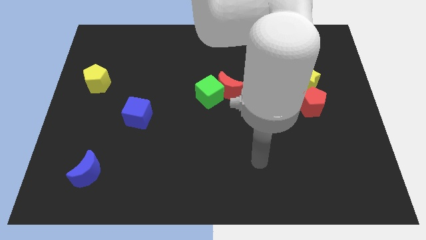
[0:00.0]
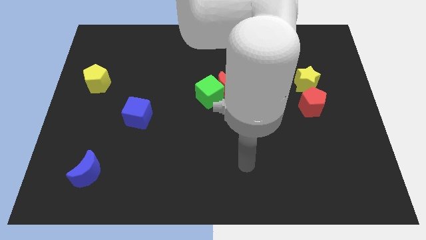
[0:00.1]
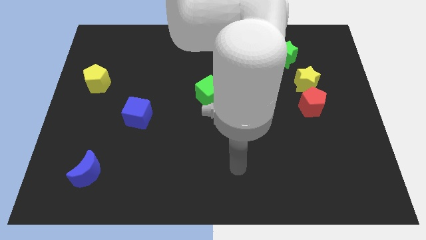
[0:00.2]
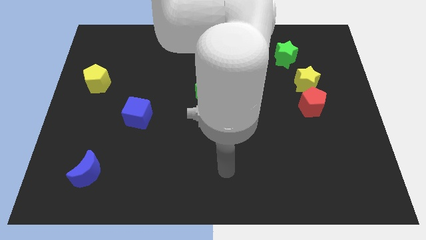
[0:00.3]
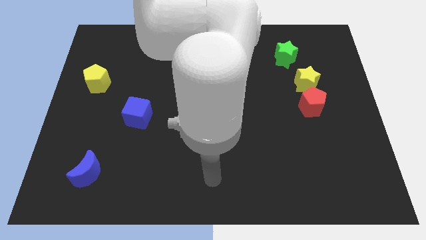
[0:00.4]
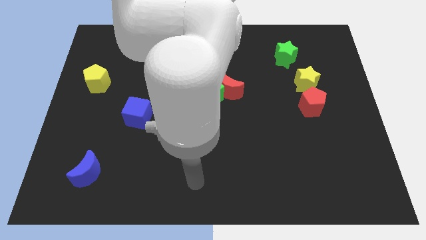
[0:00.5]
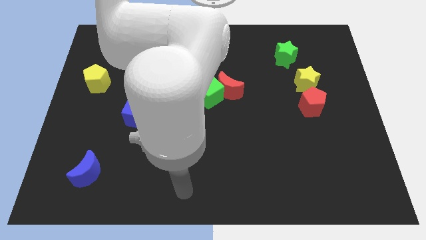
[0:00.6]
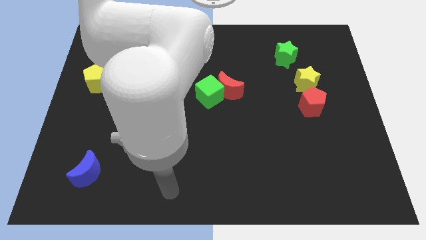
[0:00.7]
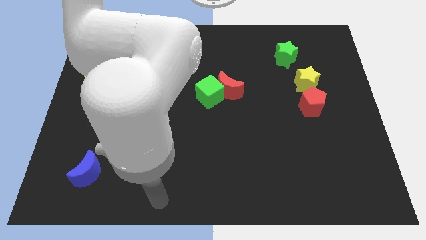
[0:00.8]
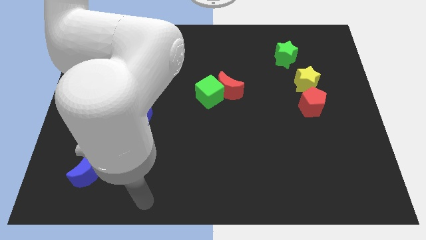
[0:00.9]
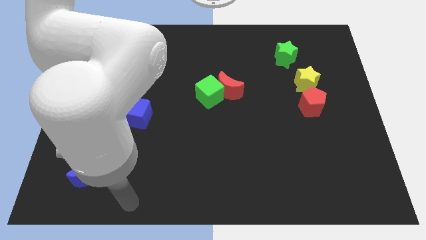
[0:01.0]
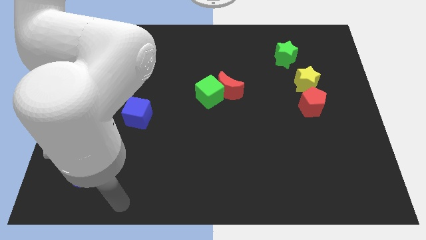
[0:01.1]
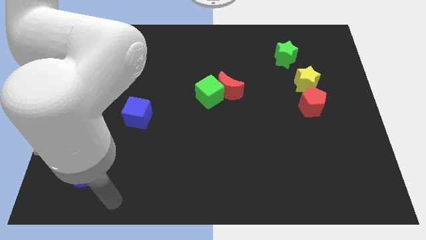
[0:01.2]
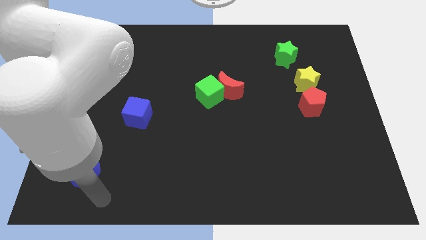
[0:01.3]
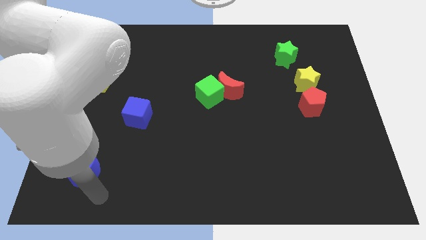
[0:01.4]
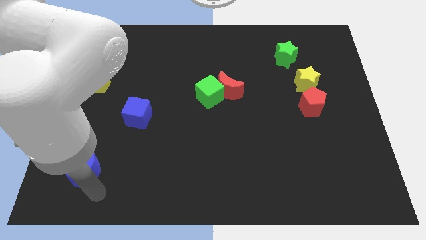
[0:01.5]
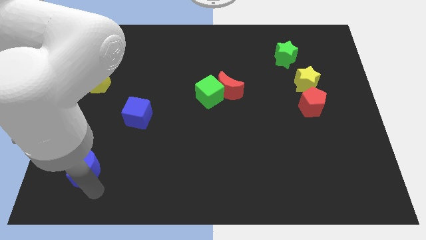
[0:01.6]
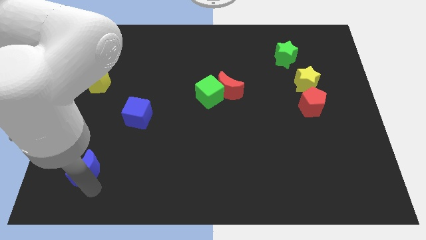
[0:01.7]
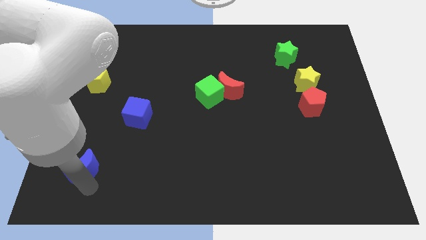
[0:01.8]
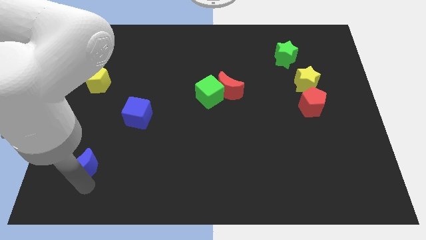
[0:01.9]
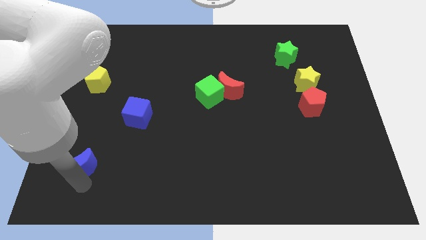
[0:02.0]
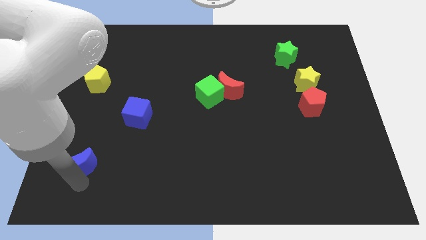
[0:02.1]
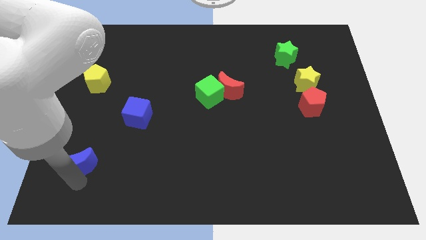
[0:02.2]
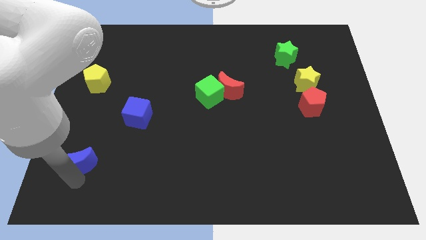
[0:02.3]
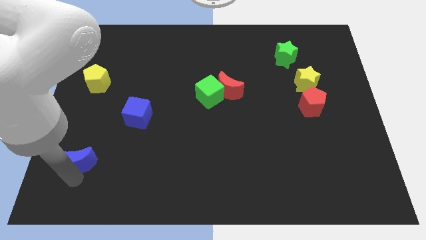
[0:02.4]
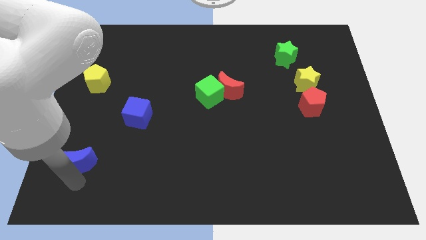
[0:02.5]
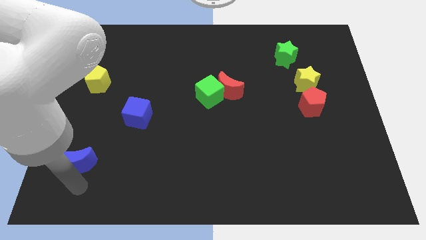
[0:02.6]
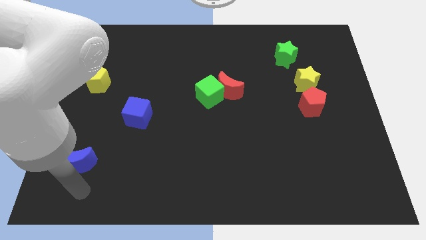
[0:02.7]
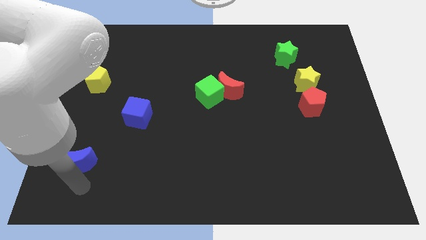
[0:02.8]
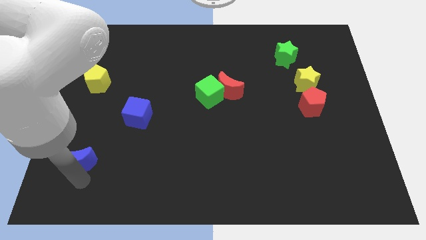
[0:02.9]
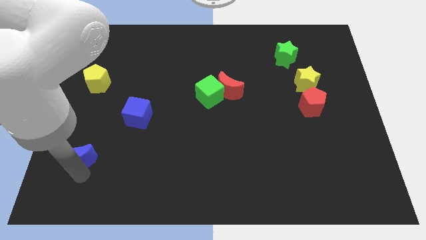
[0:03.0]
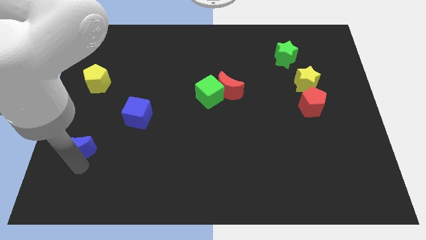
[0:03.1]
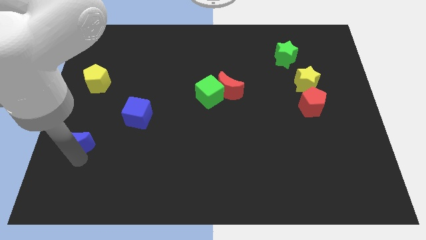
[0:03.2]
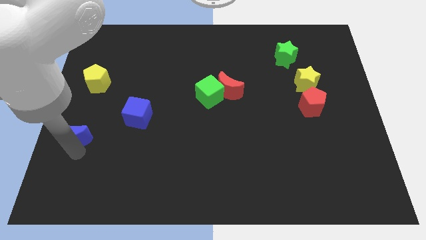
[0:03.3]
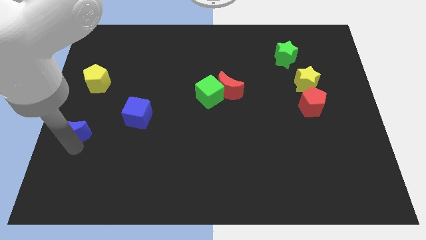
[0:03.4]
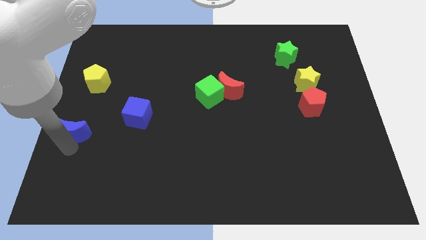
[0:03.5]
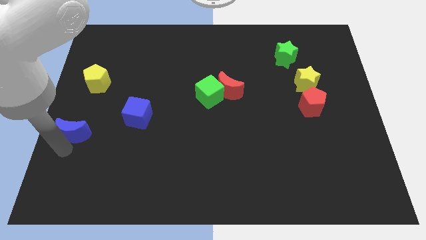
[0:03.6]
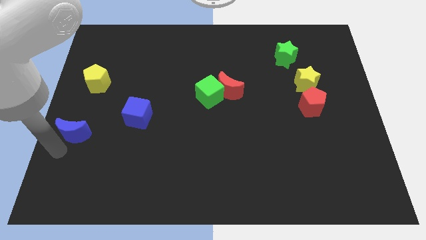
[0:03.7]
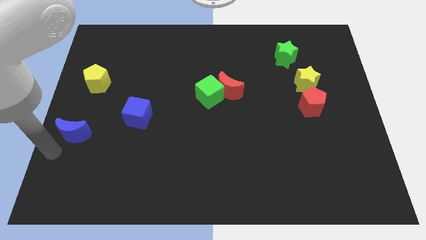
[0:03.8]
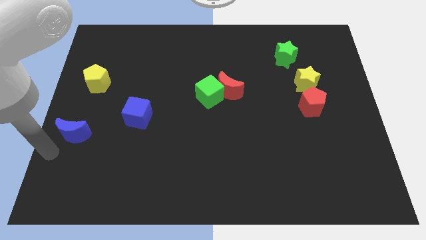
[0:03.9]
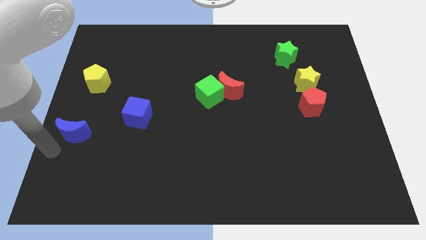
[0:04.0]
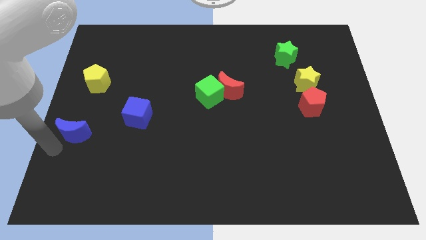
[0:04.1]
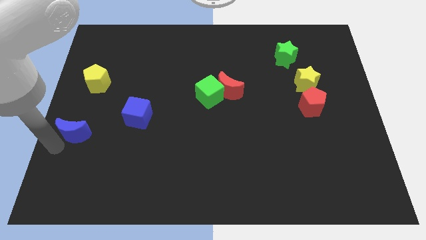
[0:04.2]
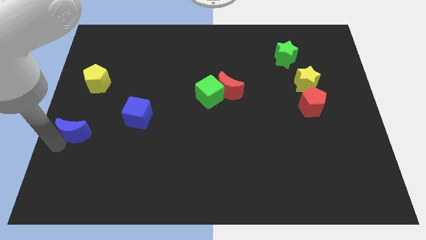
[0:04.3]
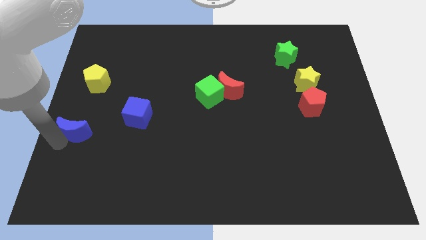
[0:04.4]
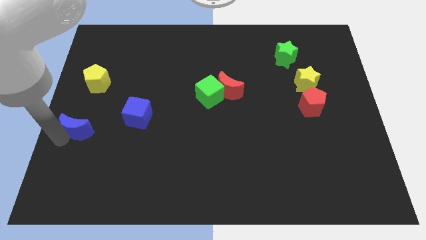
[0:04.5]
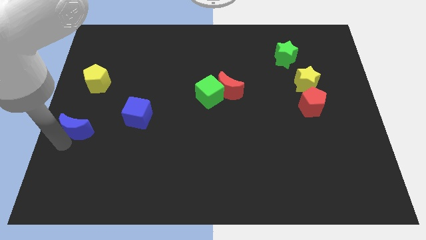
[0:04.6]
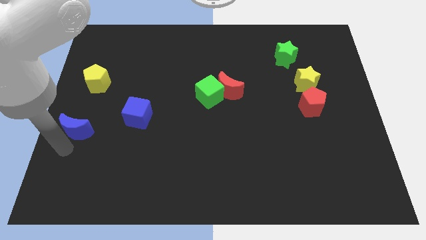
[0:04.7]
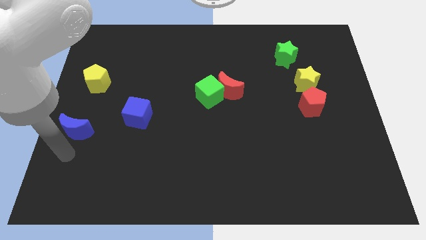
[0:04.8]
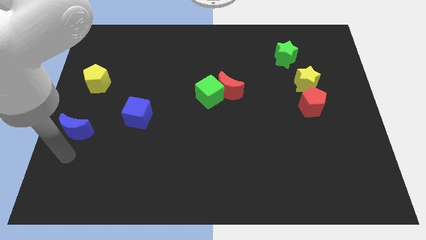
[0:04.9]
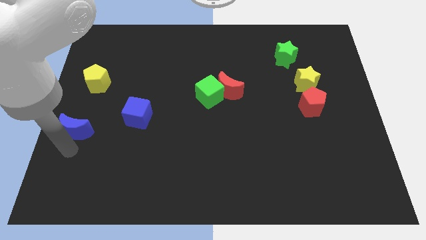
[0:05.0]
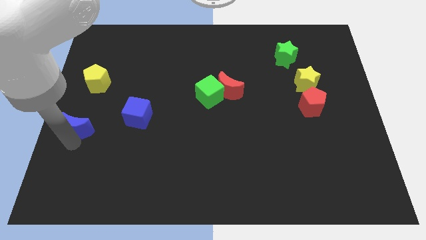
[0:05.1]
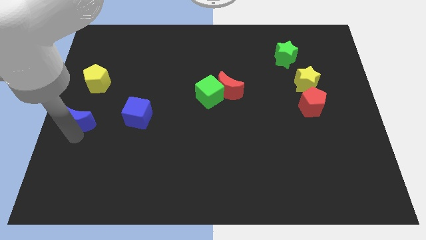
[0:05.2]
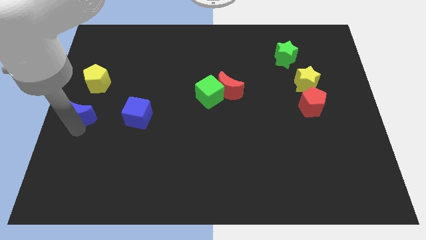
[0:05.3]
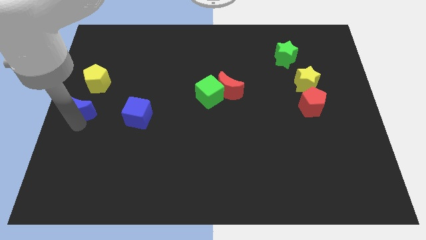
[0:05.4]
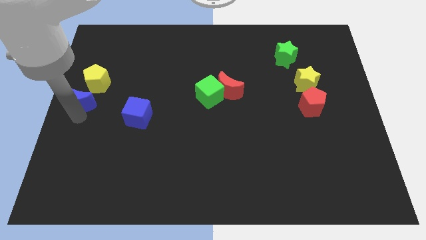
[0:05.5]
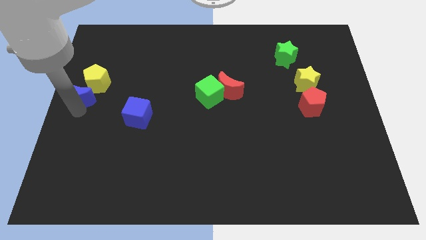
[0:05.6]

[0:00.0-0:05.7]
push the blue moon to the yellow pentagon

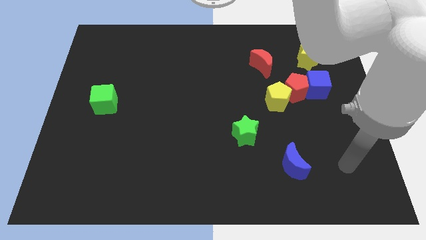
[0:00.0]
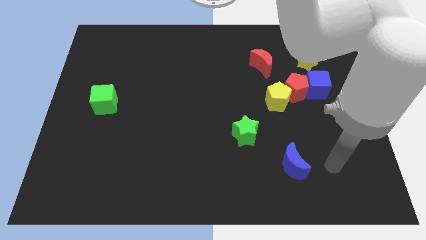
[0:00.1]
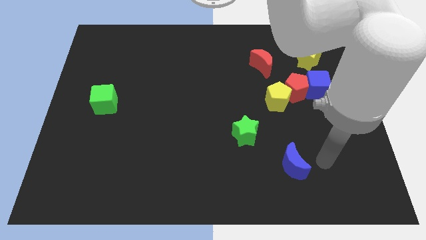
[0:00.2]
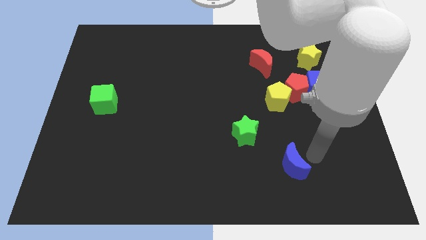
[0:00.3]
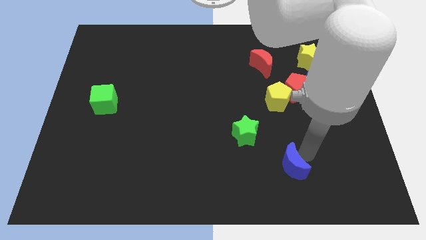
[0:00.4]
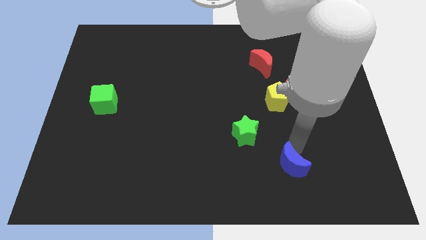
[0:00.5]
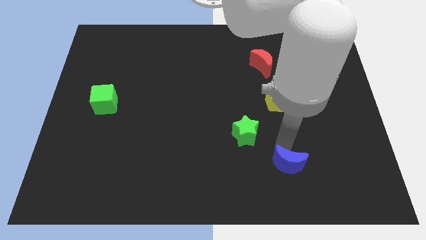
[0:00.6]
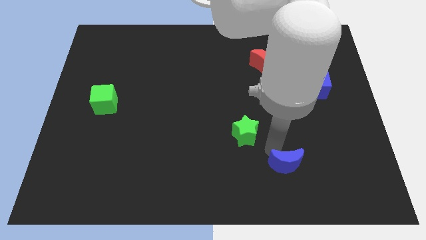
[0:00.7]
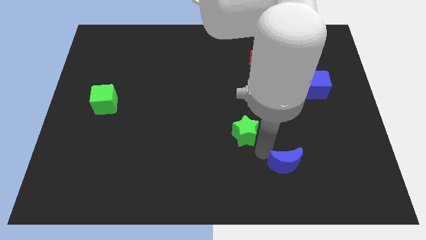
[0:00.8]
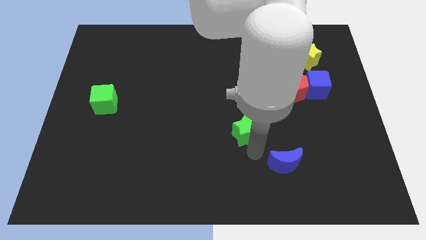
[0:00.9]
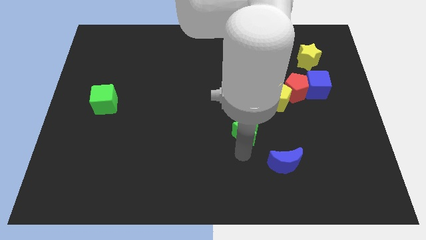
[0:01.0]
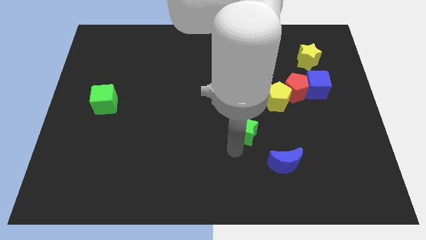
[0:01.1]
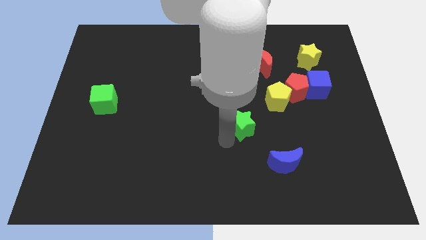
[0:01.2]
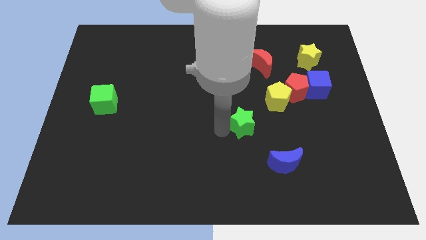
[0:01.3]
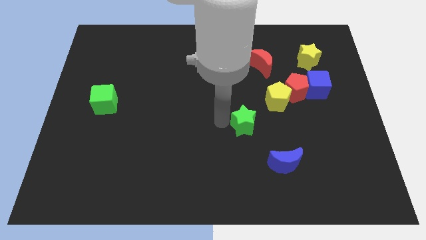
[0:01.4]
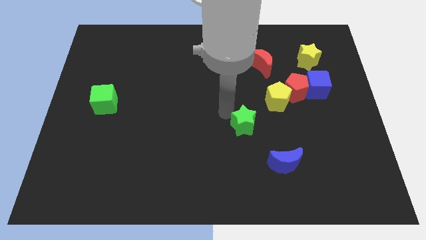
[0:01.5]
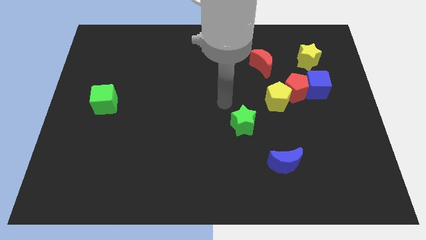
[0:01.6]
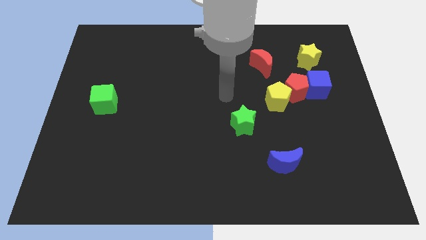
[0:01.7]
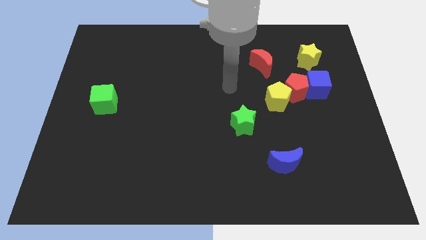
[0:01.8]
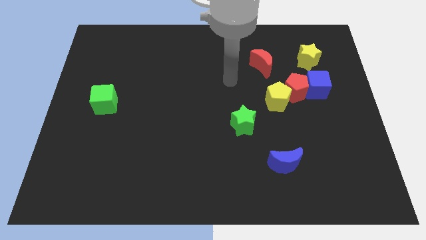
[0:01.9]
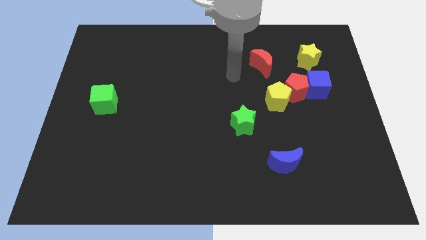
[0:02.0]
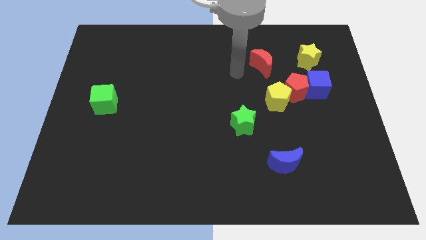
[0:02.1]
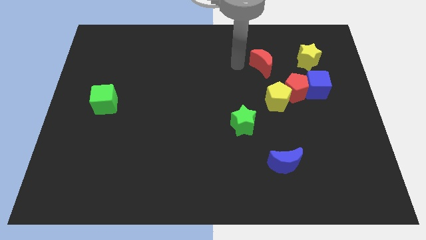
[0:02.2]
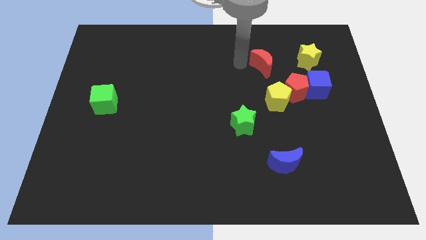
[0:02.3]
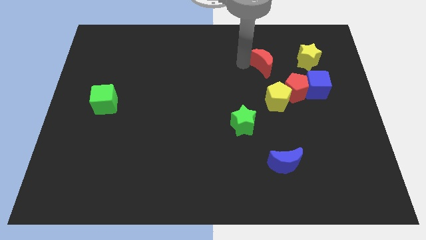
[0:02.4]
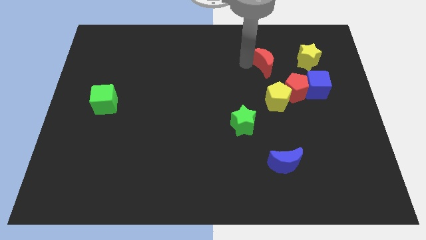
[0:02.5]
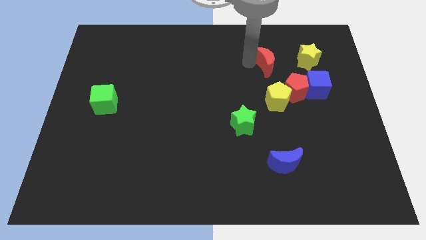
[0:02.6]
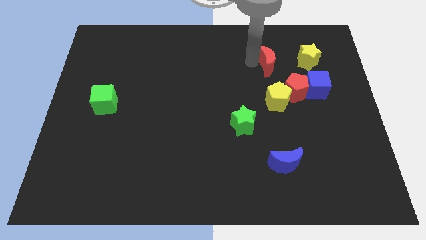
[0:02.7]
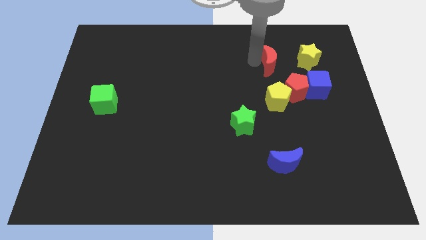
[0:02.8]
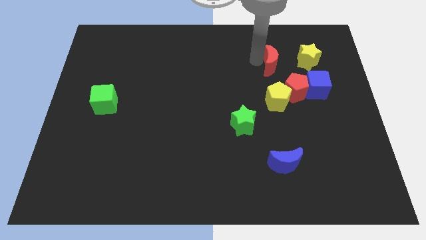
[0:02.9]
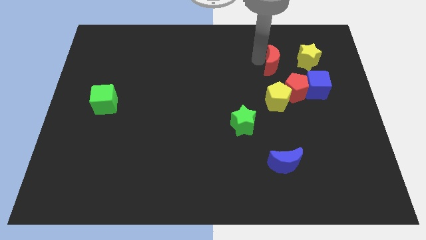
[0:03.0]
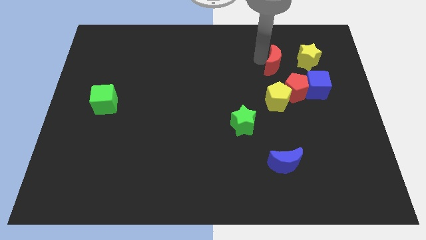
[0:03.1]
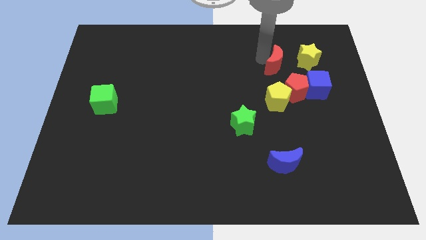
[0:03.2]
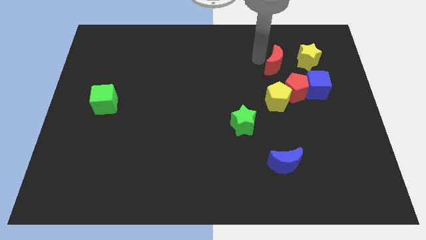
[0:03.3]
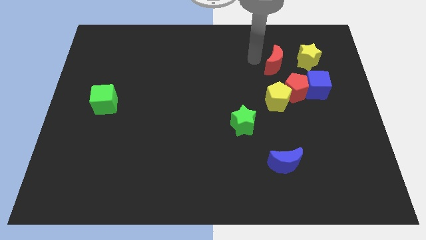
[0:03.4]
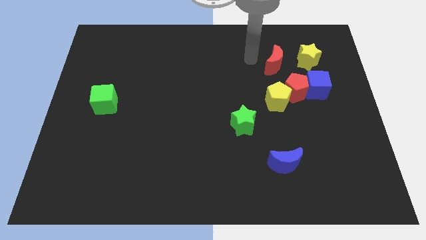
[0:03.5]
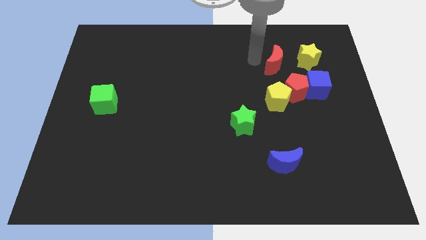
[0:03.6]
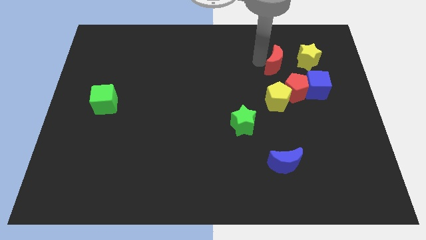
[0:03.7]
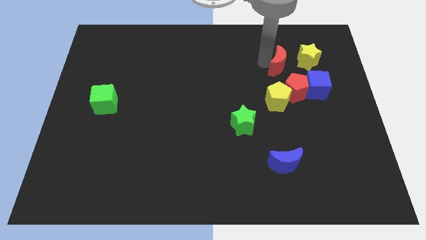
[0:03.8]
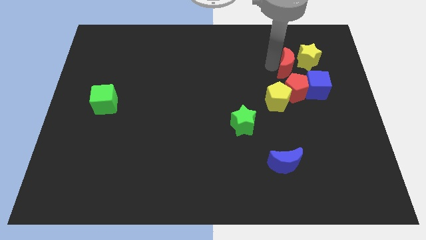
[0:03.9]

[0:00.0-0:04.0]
move the red moon towards the yellow star
